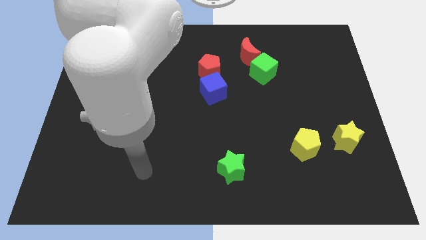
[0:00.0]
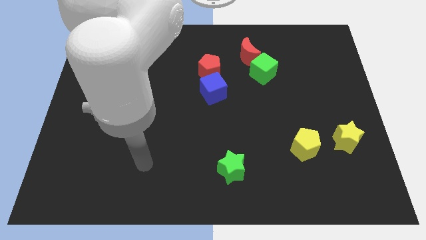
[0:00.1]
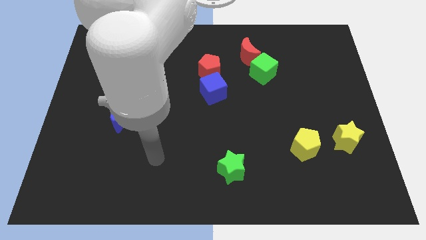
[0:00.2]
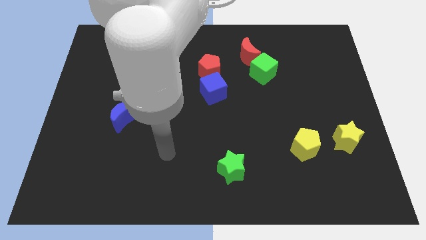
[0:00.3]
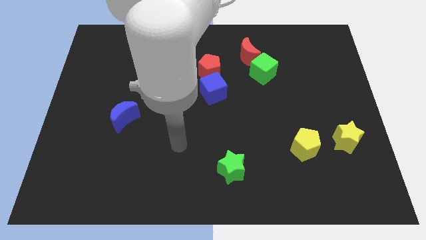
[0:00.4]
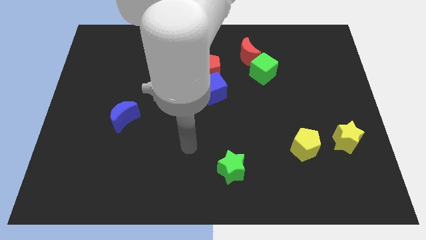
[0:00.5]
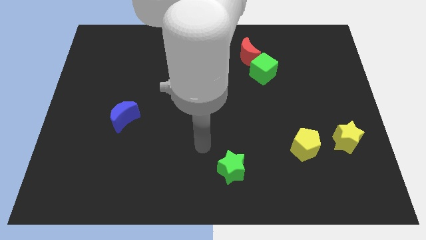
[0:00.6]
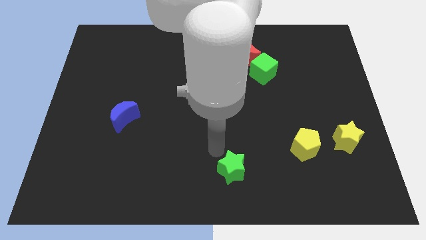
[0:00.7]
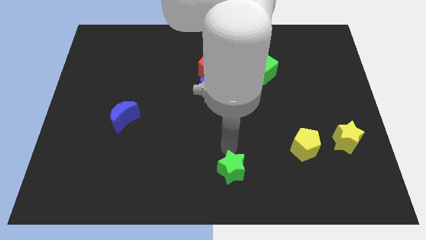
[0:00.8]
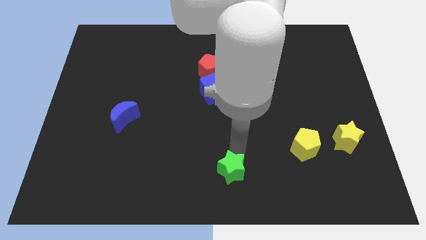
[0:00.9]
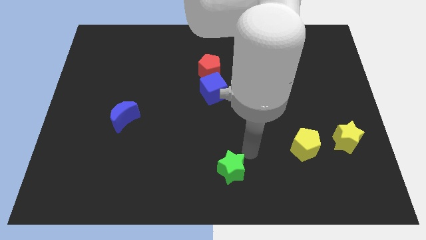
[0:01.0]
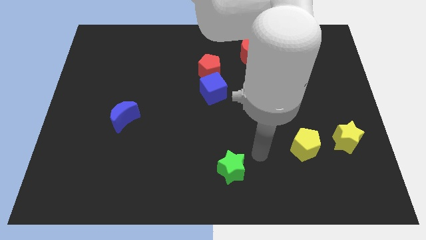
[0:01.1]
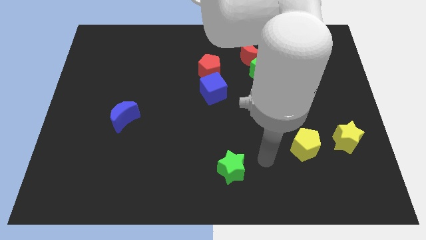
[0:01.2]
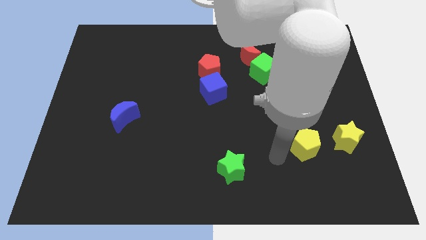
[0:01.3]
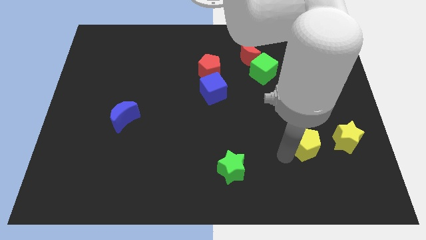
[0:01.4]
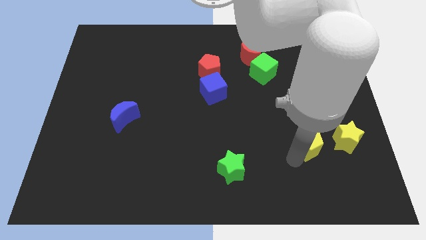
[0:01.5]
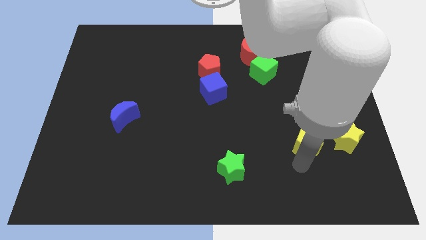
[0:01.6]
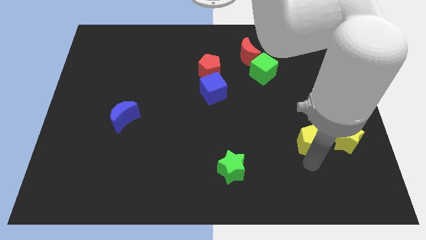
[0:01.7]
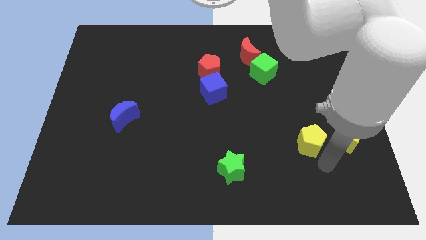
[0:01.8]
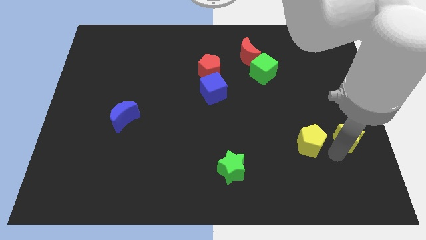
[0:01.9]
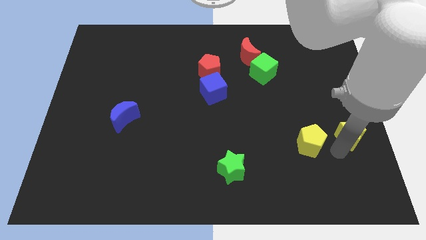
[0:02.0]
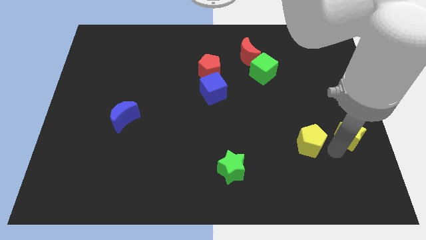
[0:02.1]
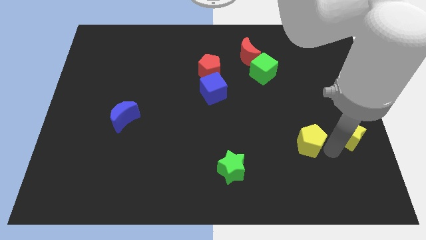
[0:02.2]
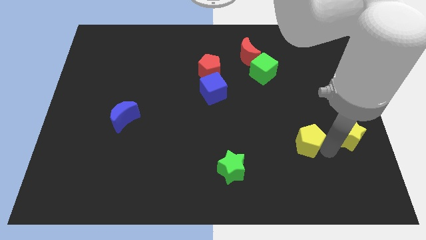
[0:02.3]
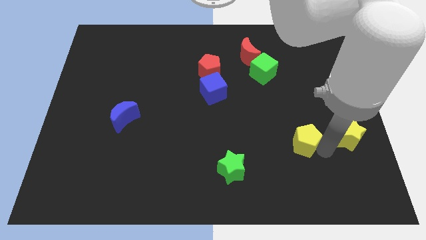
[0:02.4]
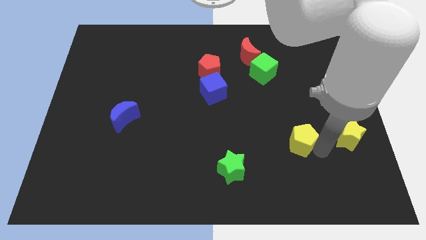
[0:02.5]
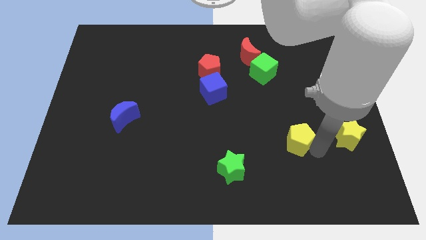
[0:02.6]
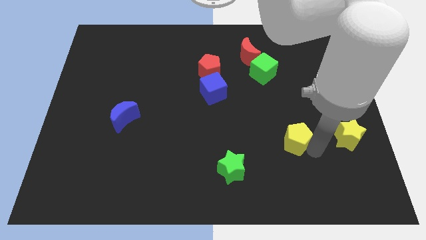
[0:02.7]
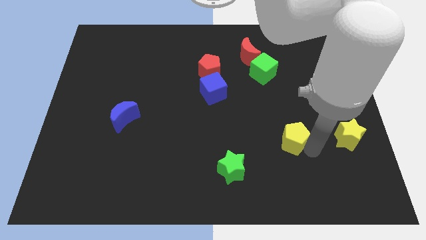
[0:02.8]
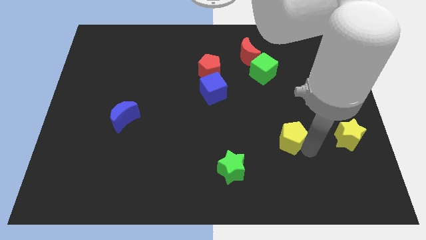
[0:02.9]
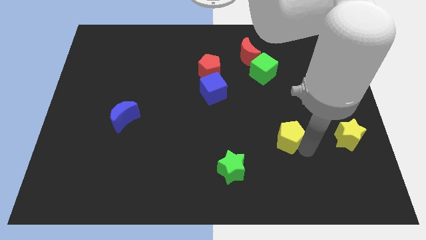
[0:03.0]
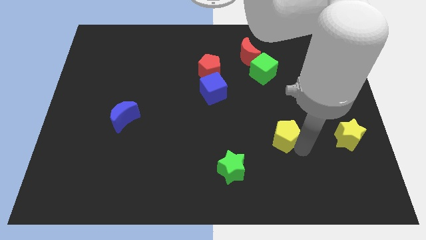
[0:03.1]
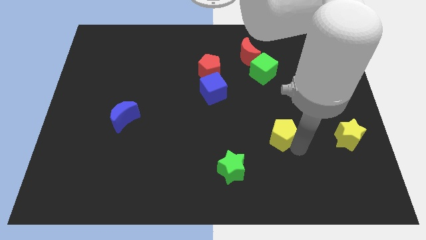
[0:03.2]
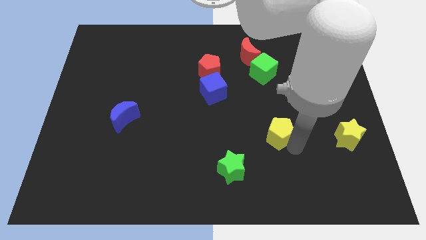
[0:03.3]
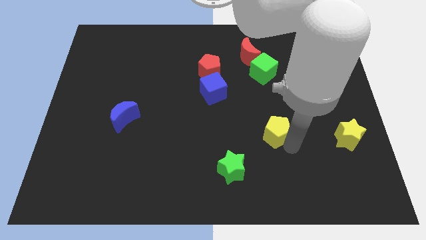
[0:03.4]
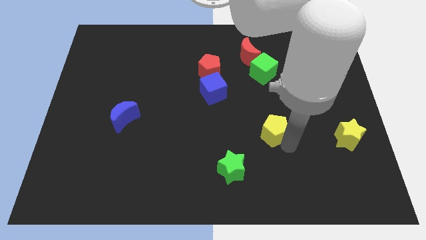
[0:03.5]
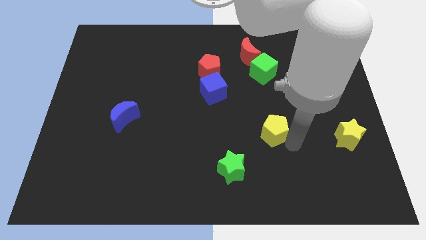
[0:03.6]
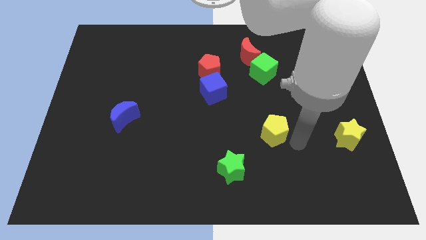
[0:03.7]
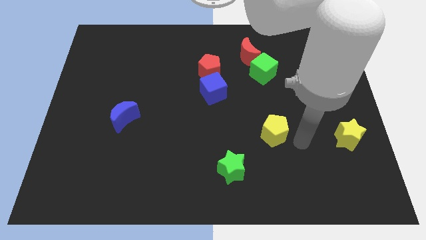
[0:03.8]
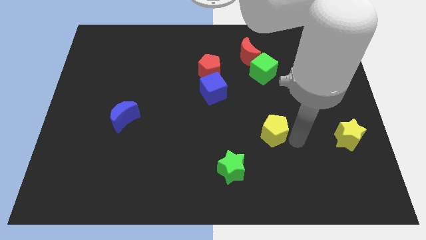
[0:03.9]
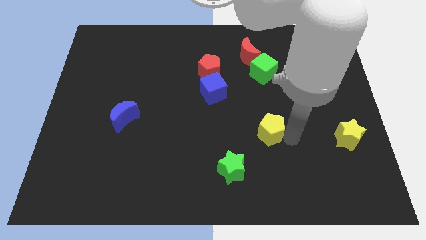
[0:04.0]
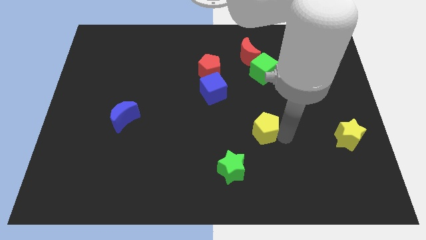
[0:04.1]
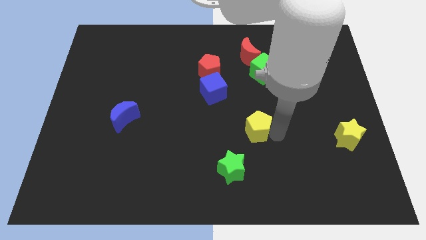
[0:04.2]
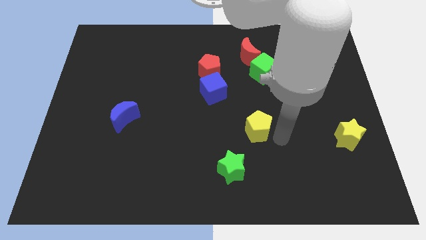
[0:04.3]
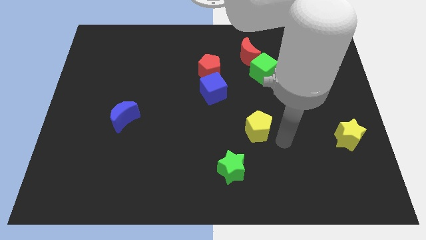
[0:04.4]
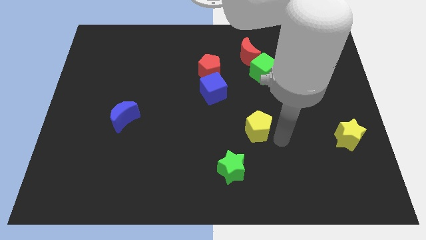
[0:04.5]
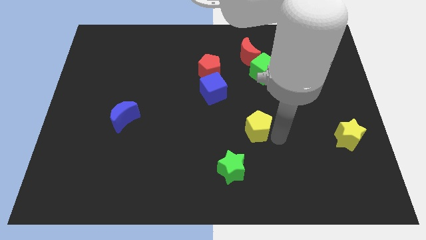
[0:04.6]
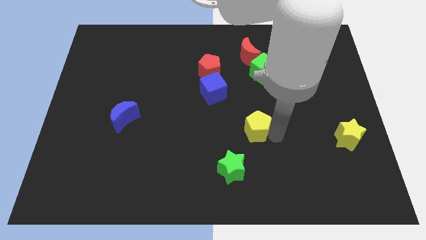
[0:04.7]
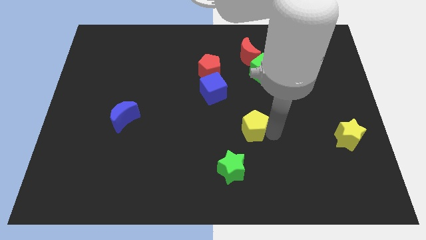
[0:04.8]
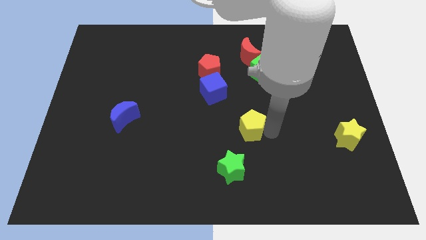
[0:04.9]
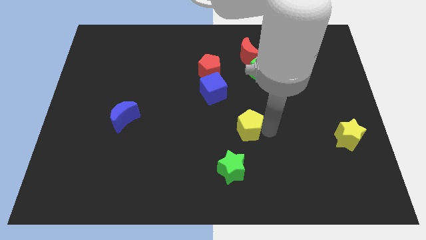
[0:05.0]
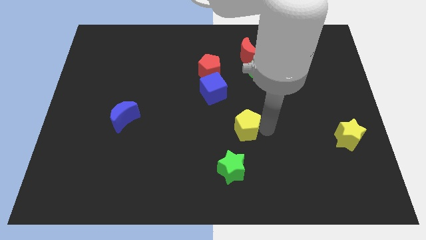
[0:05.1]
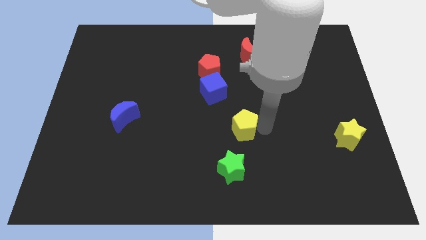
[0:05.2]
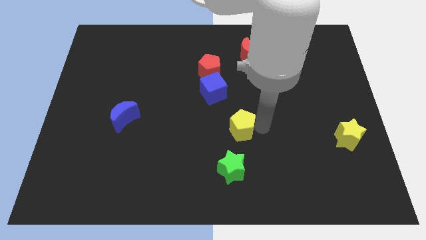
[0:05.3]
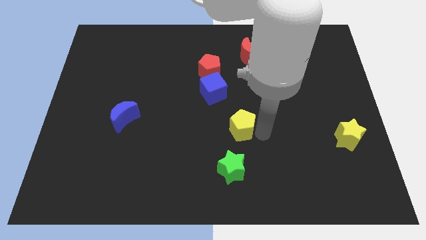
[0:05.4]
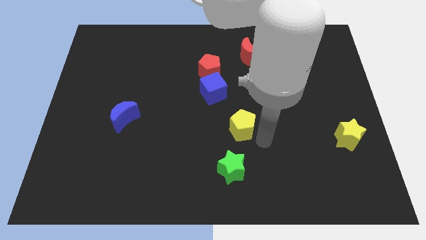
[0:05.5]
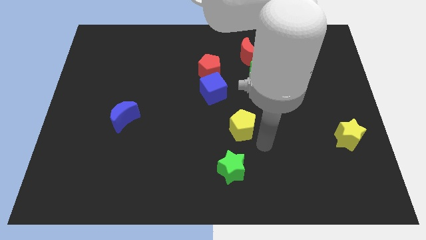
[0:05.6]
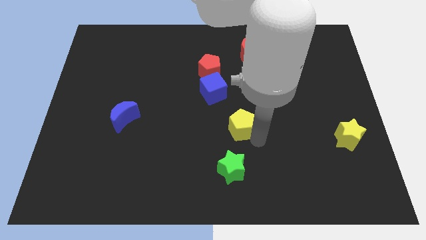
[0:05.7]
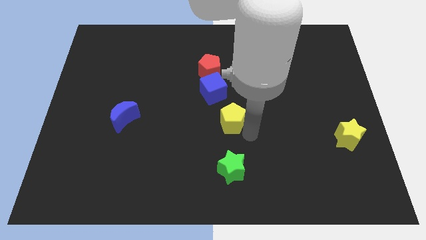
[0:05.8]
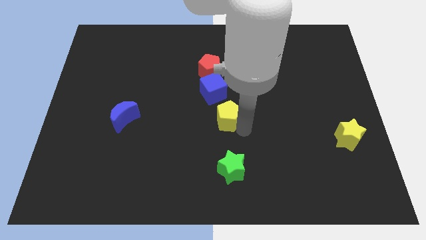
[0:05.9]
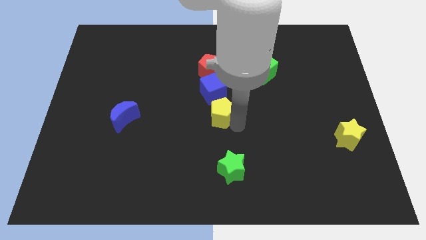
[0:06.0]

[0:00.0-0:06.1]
slide the yellow pentagon below the red pentagon
